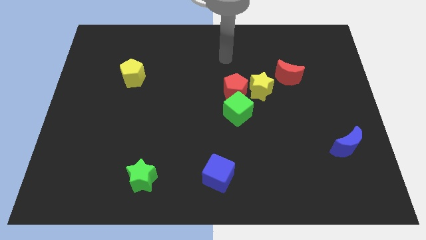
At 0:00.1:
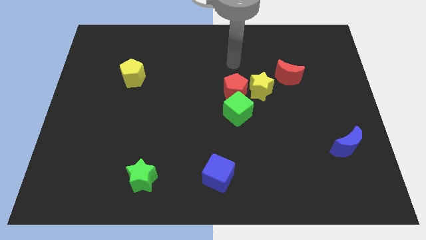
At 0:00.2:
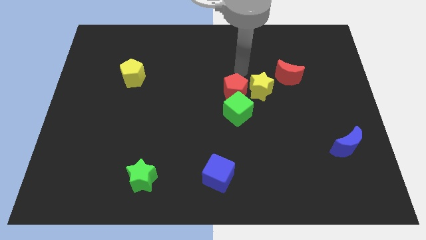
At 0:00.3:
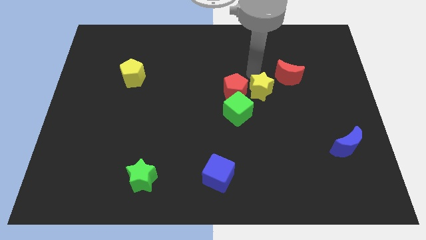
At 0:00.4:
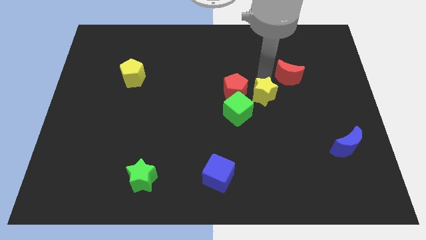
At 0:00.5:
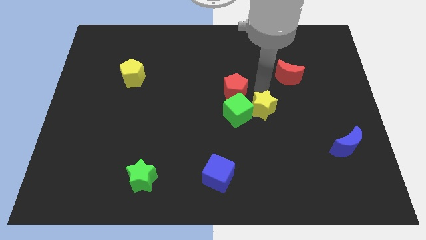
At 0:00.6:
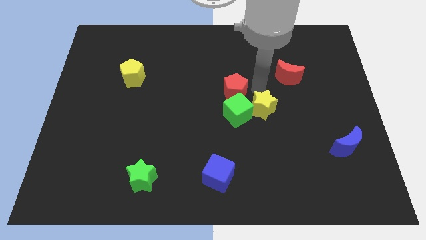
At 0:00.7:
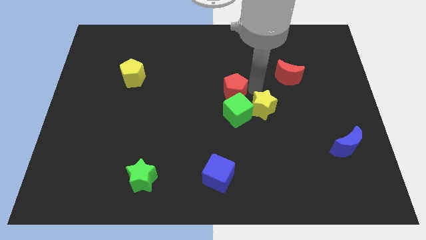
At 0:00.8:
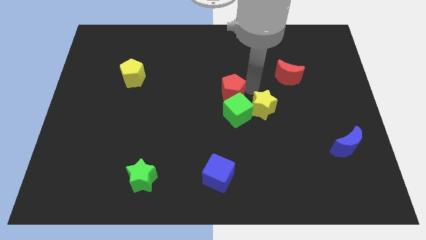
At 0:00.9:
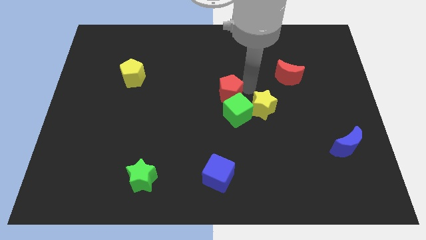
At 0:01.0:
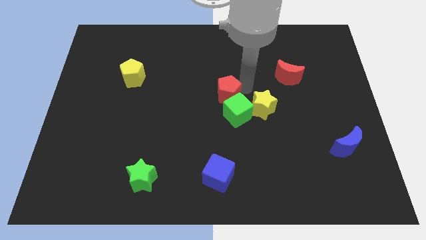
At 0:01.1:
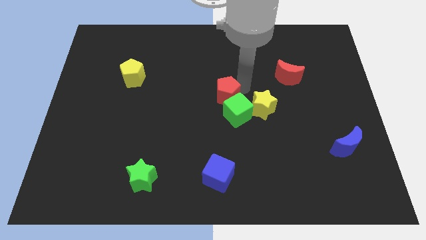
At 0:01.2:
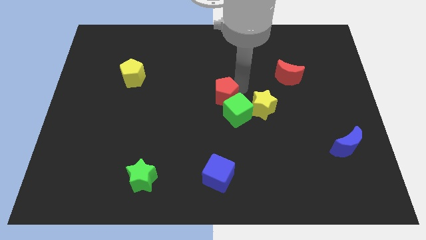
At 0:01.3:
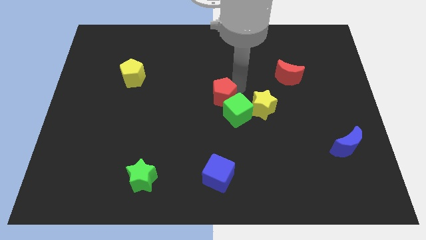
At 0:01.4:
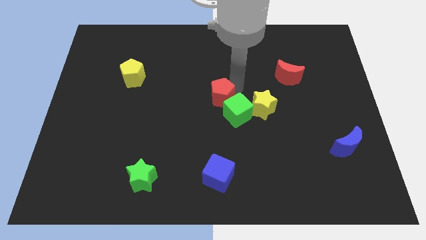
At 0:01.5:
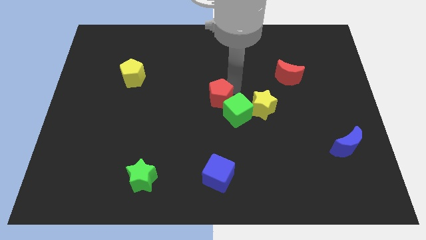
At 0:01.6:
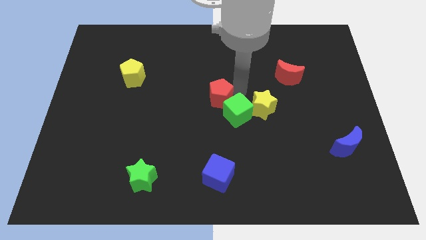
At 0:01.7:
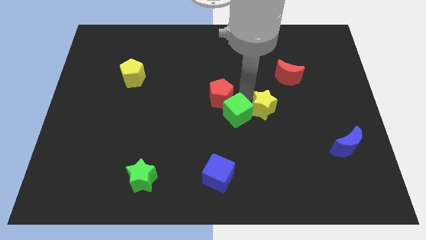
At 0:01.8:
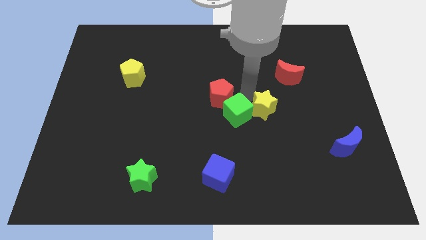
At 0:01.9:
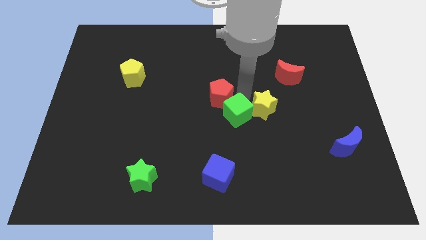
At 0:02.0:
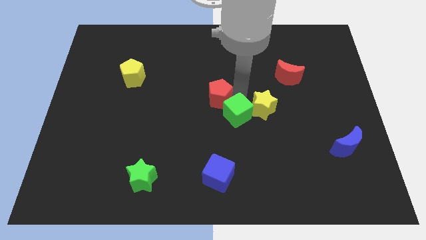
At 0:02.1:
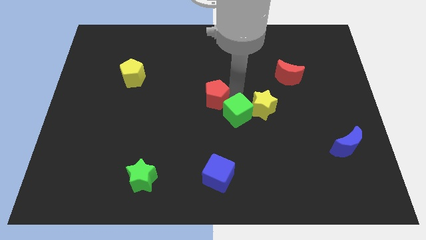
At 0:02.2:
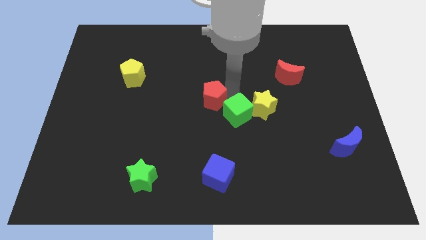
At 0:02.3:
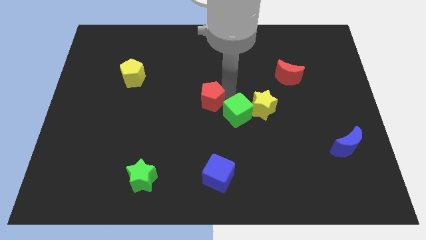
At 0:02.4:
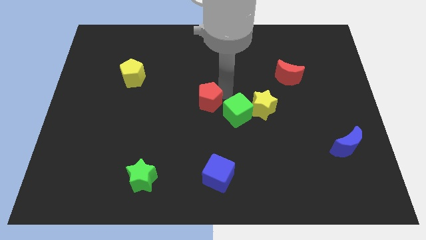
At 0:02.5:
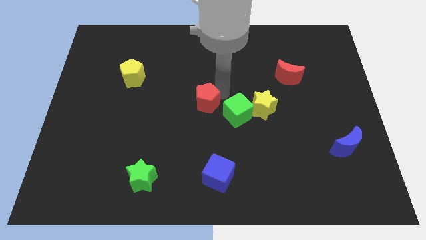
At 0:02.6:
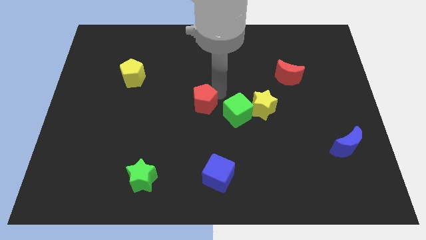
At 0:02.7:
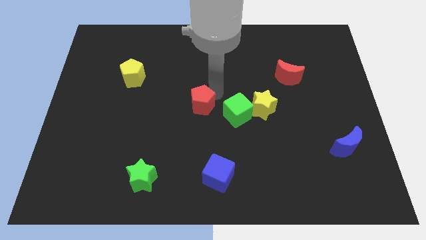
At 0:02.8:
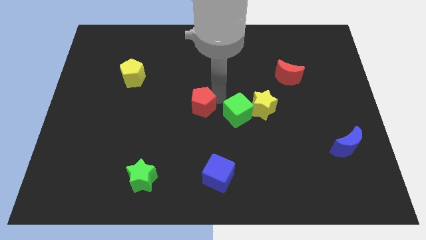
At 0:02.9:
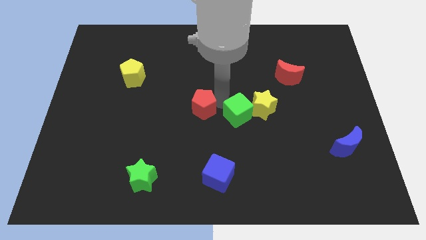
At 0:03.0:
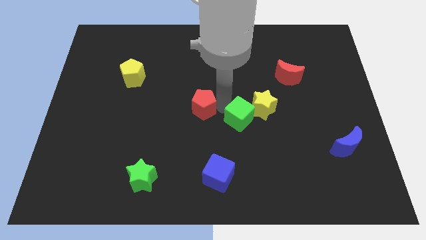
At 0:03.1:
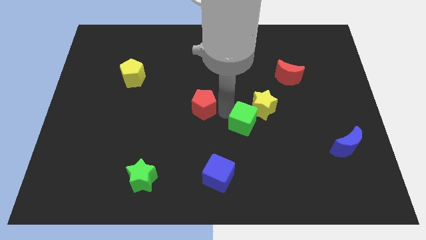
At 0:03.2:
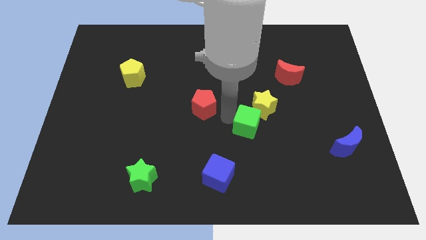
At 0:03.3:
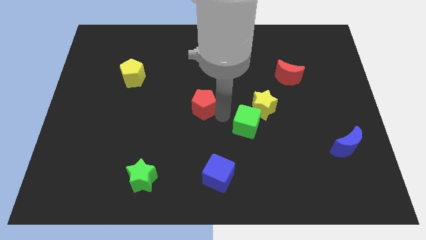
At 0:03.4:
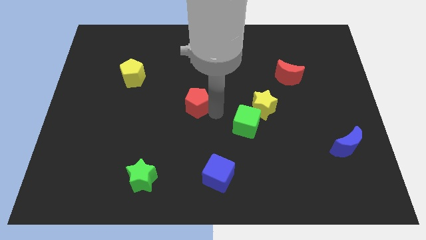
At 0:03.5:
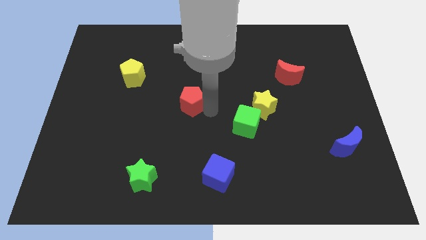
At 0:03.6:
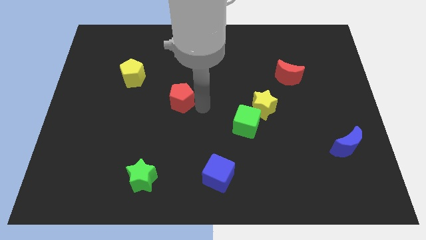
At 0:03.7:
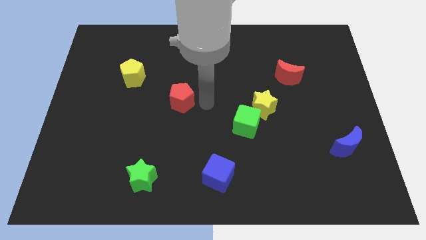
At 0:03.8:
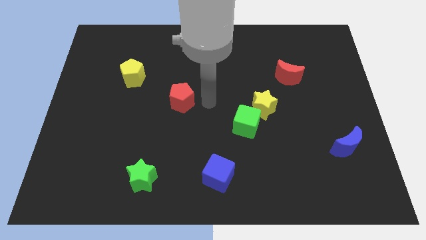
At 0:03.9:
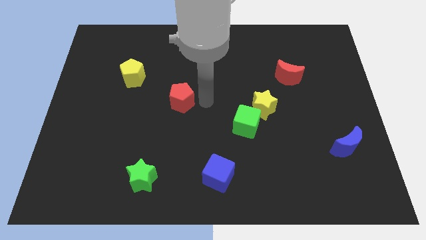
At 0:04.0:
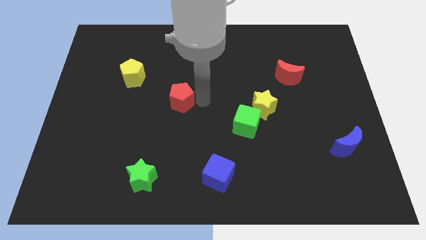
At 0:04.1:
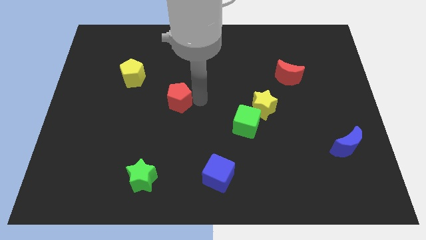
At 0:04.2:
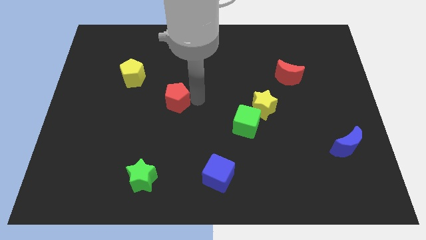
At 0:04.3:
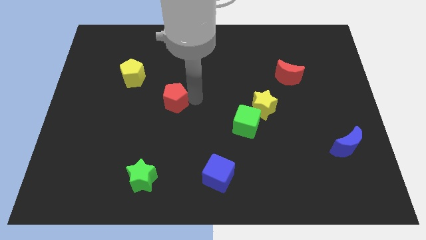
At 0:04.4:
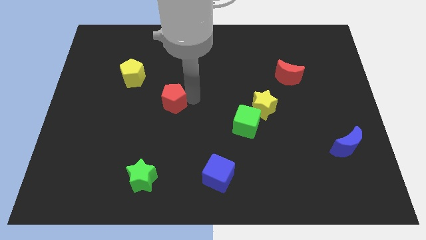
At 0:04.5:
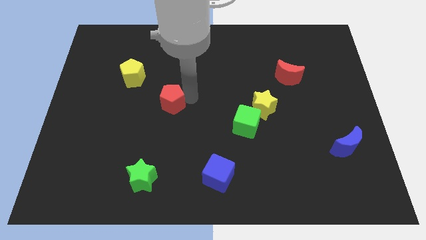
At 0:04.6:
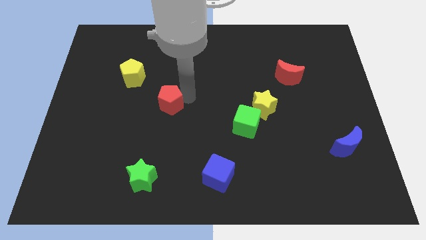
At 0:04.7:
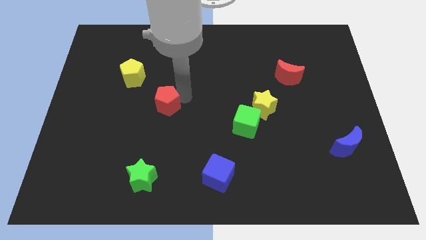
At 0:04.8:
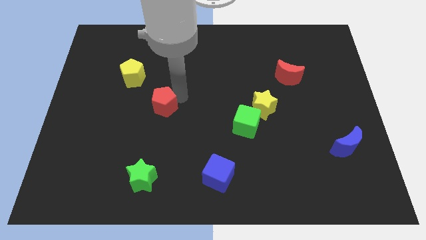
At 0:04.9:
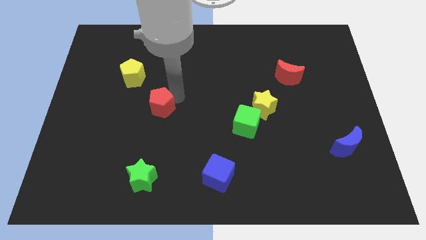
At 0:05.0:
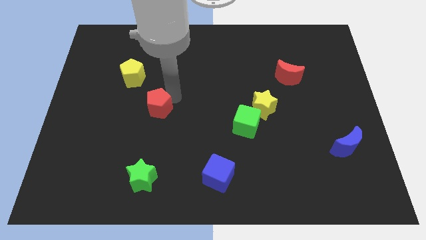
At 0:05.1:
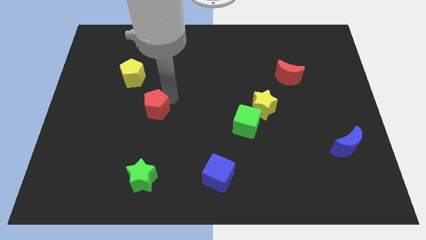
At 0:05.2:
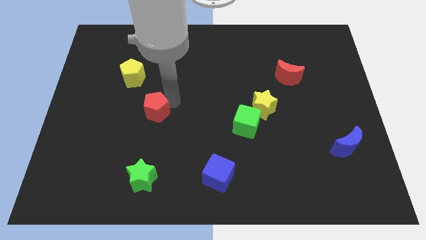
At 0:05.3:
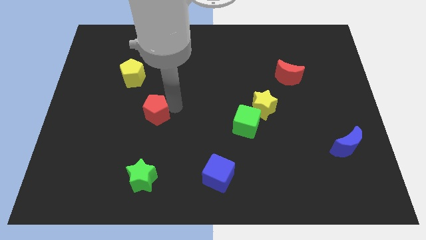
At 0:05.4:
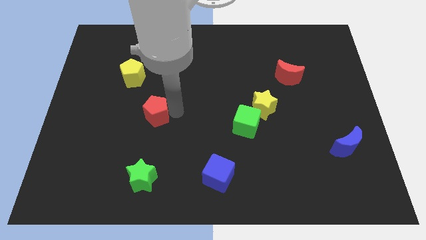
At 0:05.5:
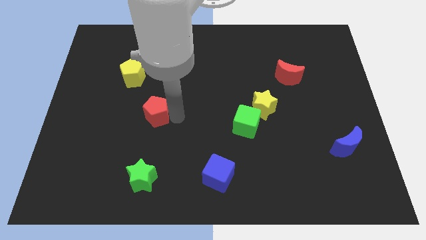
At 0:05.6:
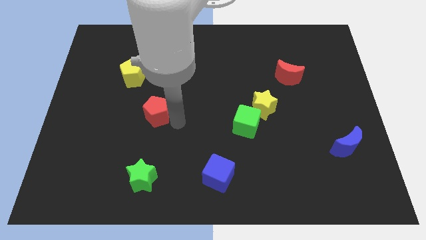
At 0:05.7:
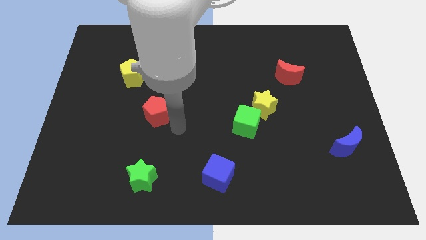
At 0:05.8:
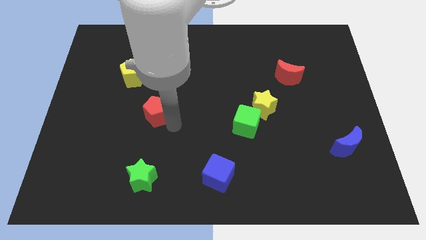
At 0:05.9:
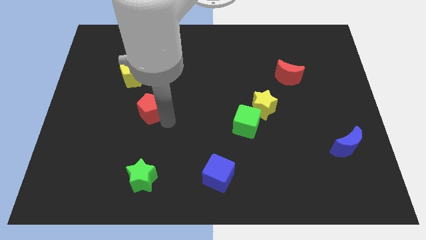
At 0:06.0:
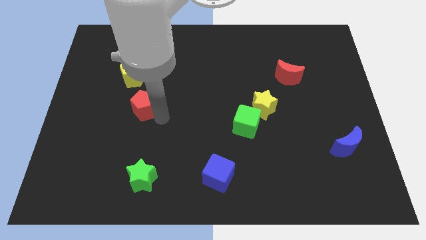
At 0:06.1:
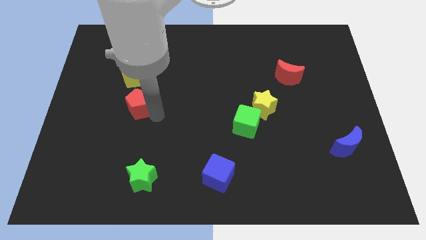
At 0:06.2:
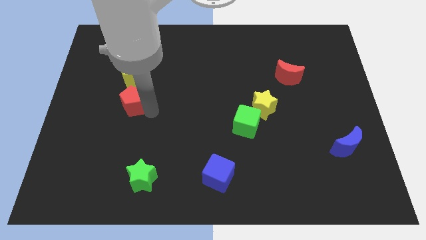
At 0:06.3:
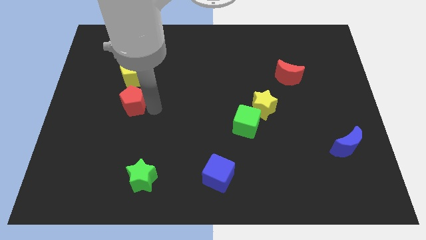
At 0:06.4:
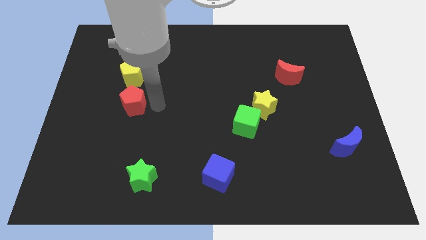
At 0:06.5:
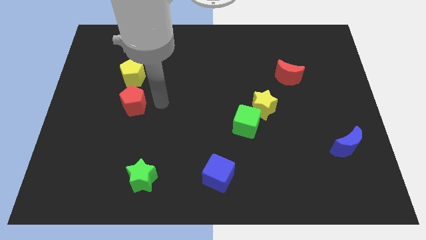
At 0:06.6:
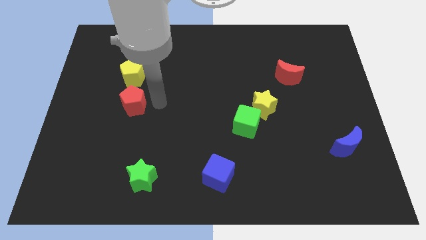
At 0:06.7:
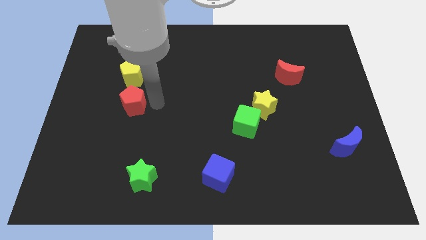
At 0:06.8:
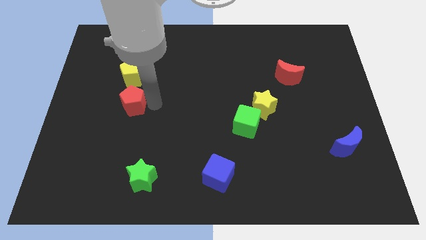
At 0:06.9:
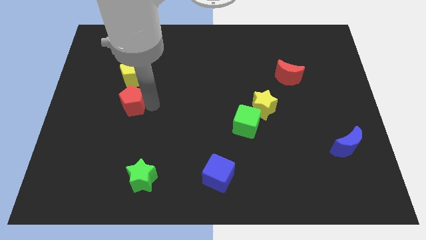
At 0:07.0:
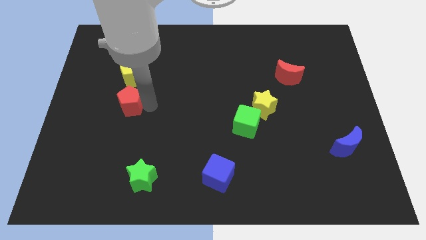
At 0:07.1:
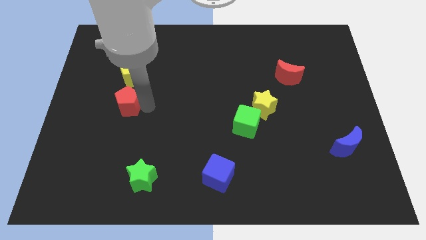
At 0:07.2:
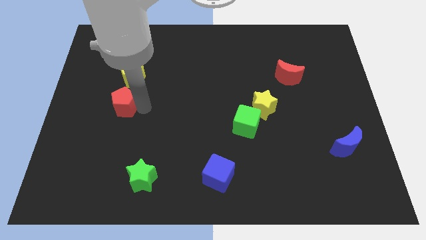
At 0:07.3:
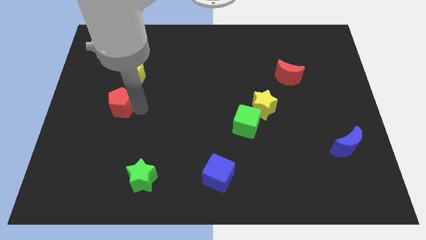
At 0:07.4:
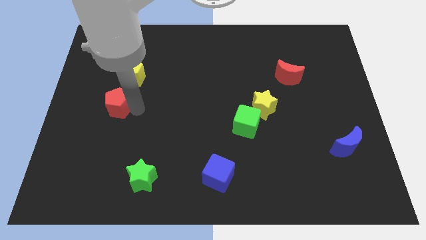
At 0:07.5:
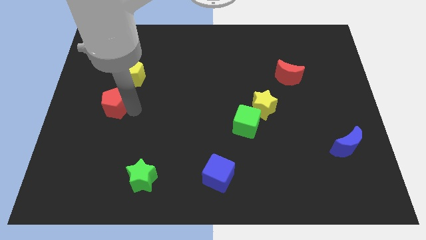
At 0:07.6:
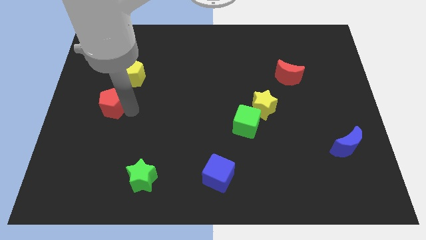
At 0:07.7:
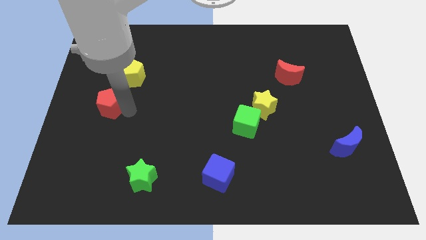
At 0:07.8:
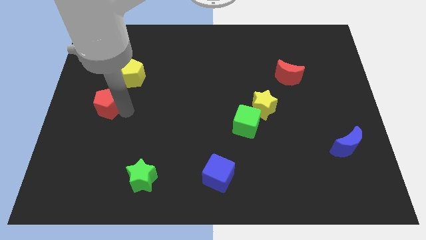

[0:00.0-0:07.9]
move the red pentagon to the left side
